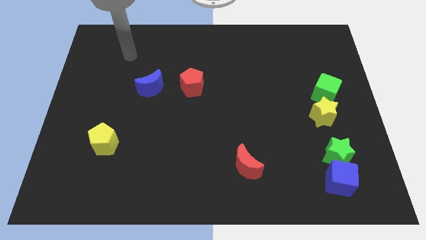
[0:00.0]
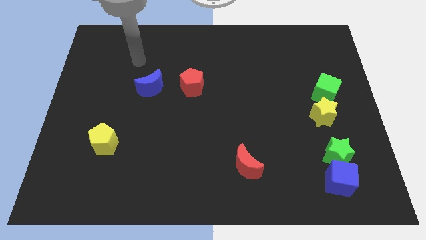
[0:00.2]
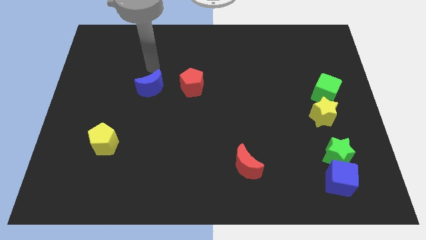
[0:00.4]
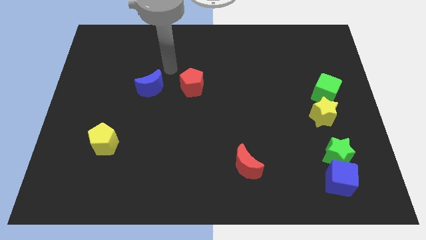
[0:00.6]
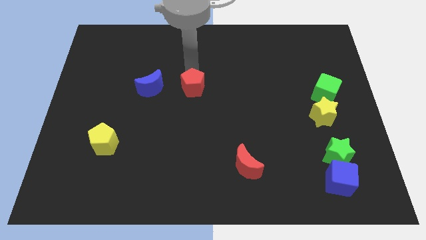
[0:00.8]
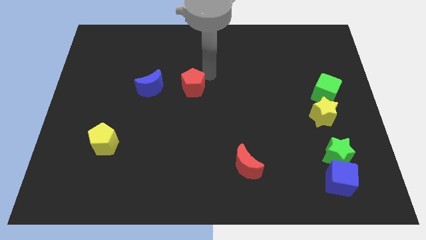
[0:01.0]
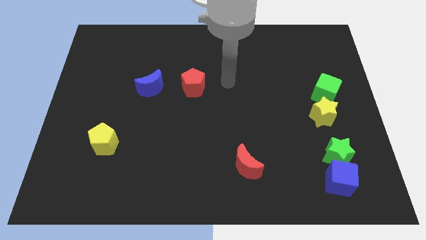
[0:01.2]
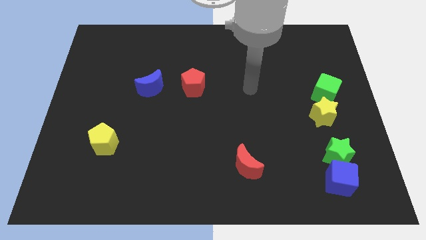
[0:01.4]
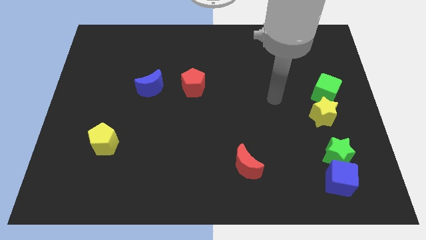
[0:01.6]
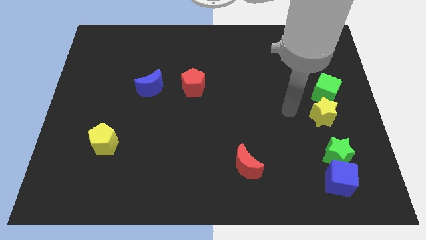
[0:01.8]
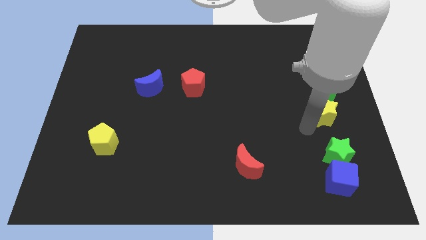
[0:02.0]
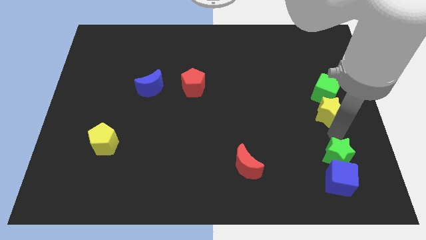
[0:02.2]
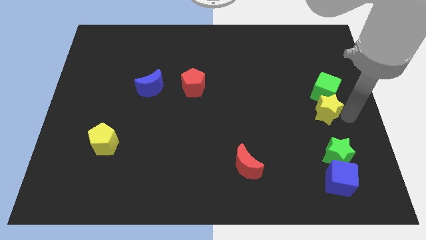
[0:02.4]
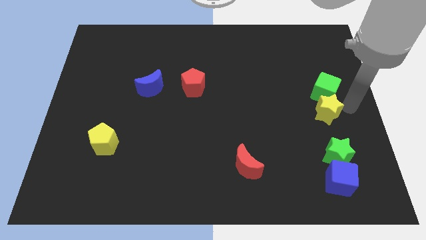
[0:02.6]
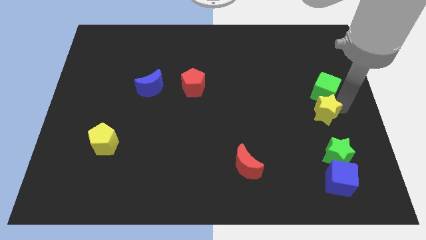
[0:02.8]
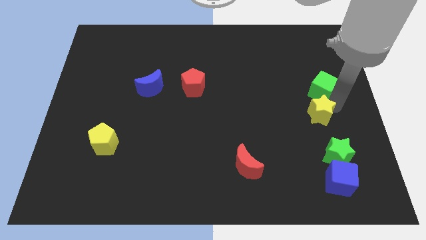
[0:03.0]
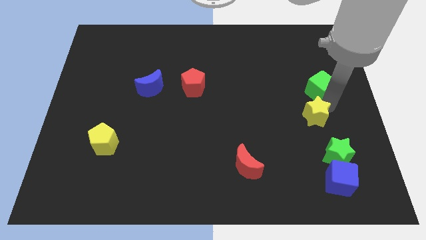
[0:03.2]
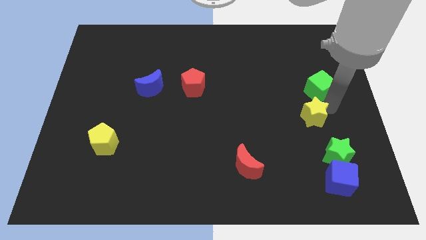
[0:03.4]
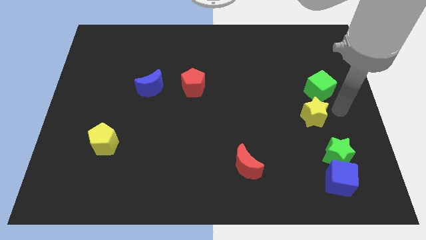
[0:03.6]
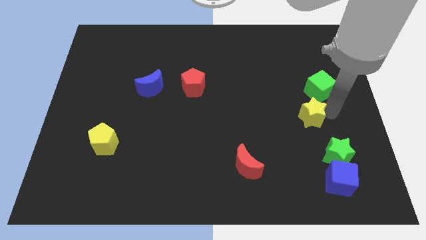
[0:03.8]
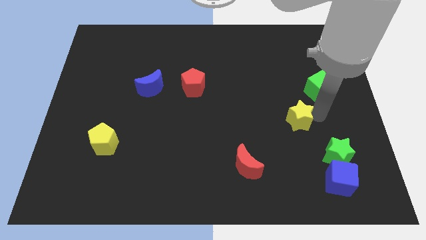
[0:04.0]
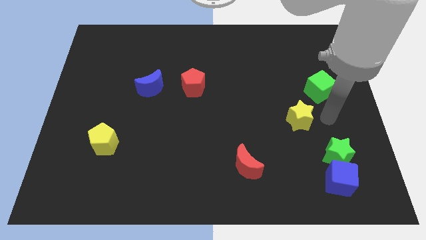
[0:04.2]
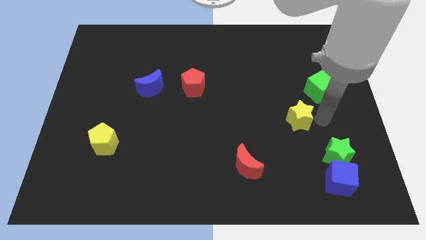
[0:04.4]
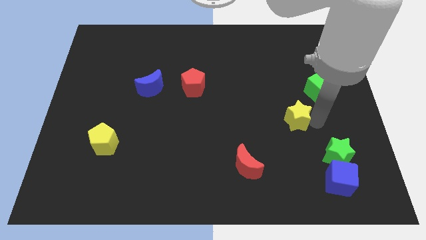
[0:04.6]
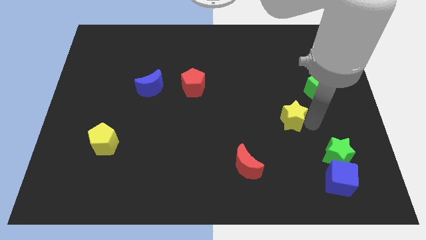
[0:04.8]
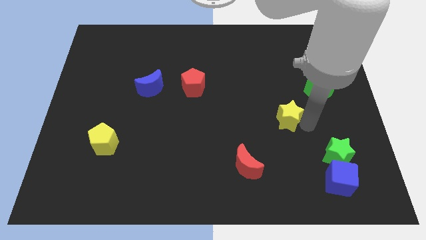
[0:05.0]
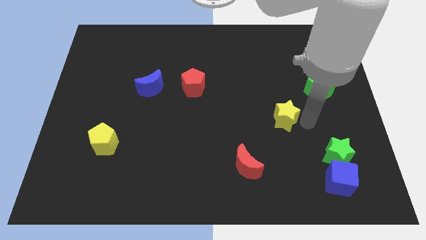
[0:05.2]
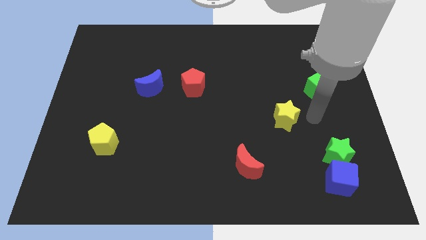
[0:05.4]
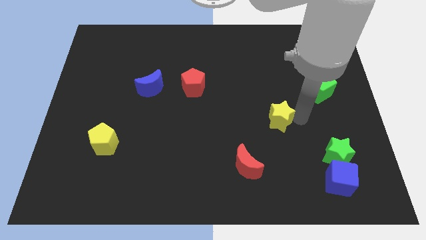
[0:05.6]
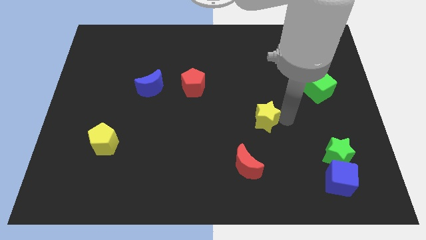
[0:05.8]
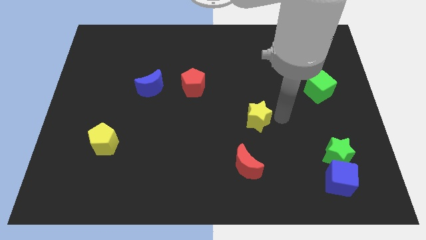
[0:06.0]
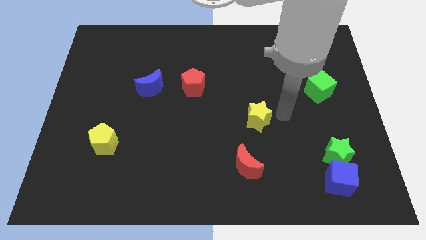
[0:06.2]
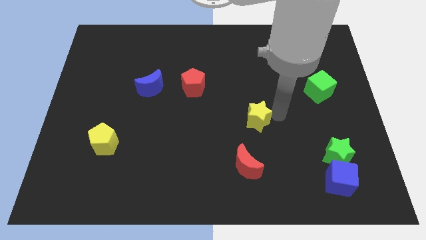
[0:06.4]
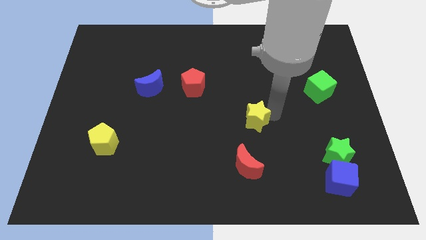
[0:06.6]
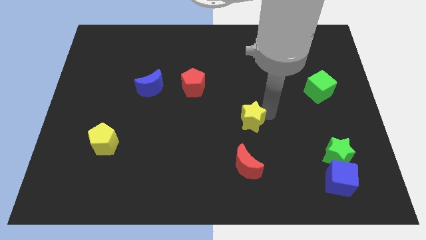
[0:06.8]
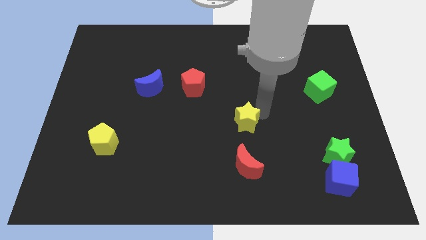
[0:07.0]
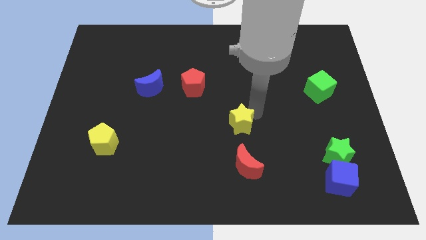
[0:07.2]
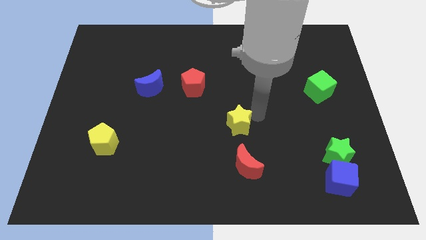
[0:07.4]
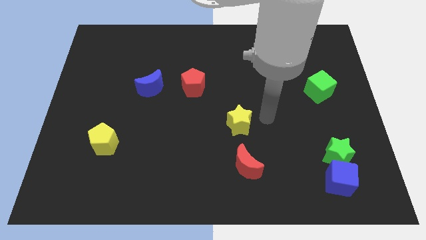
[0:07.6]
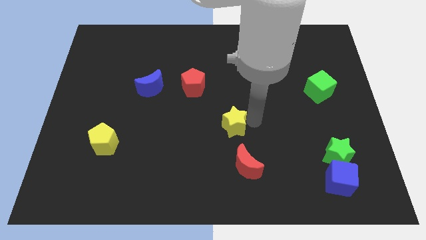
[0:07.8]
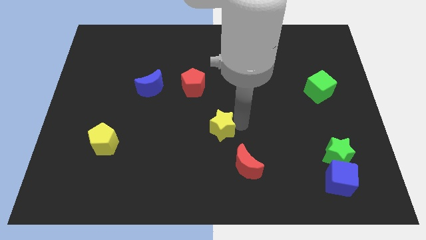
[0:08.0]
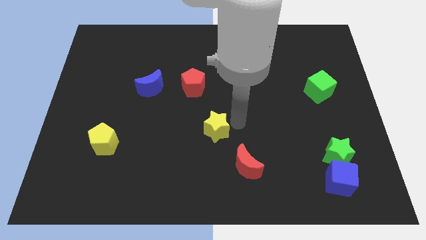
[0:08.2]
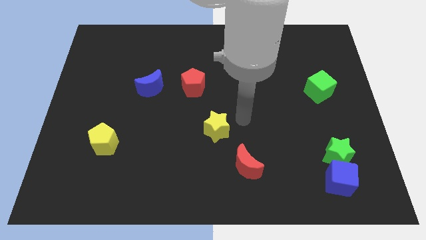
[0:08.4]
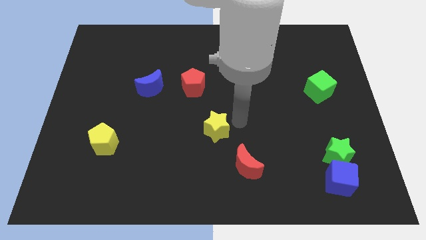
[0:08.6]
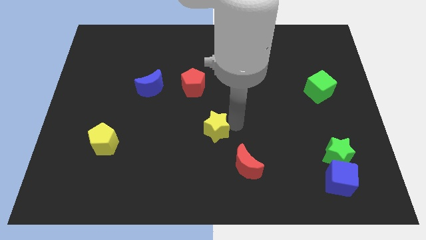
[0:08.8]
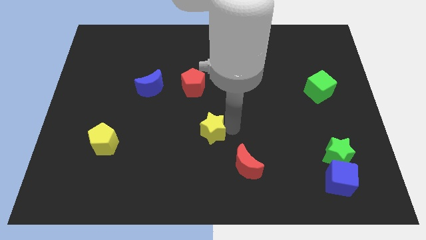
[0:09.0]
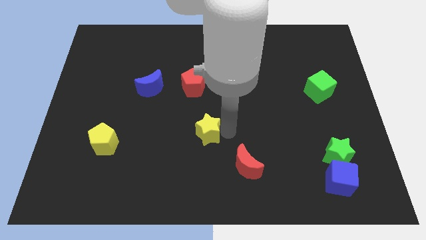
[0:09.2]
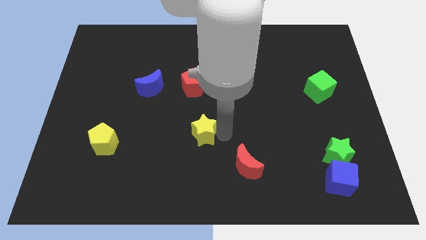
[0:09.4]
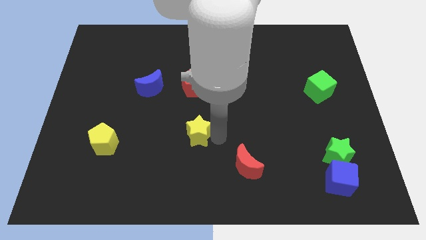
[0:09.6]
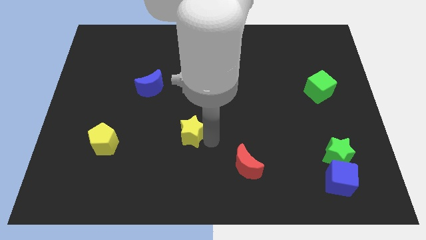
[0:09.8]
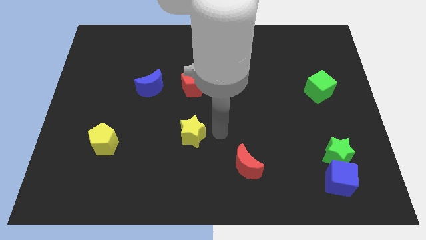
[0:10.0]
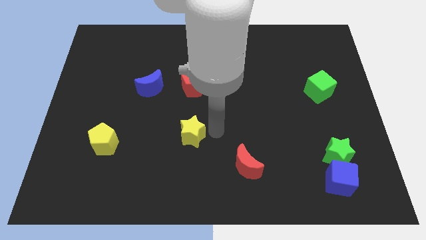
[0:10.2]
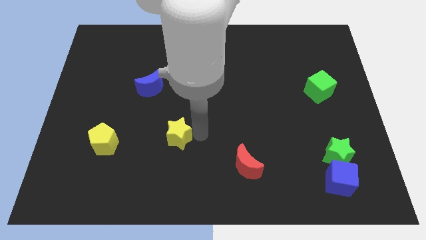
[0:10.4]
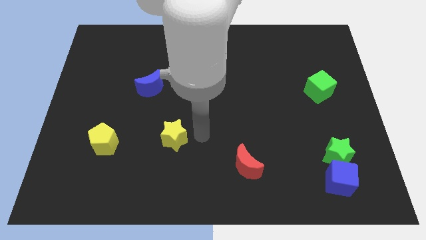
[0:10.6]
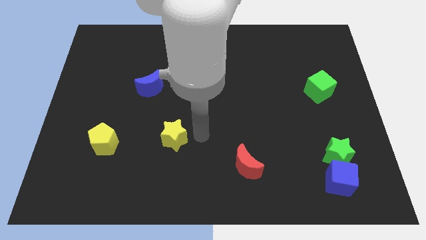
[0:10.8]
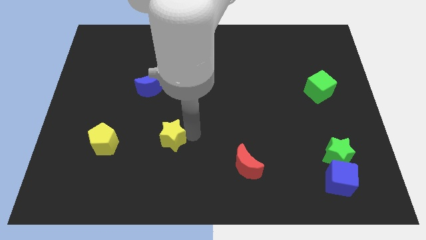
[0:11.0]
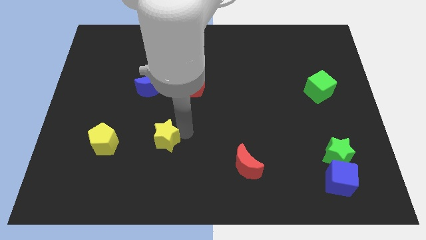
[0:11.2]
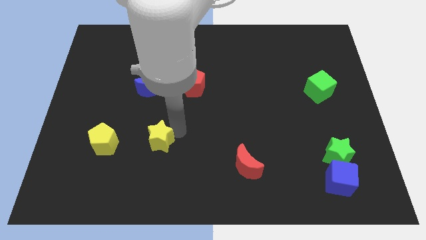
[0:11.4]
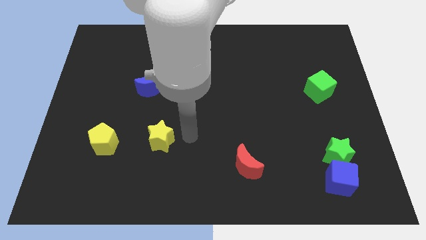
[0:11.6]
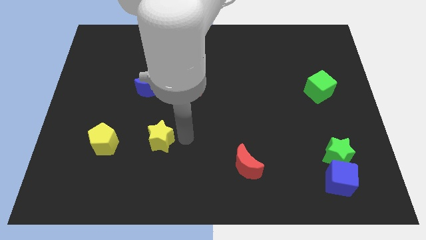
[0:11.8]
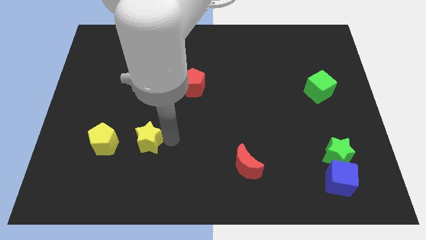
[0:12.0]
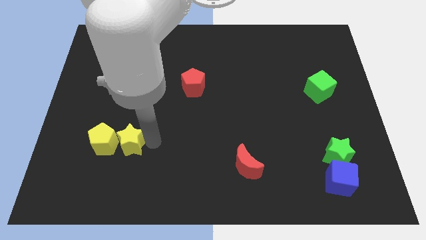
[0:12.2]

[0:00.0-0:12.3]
put the yellow star towards the yellow pentagon

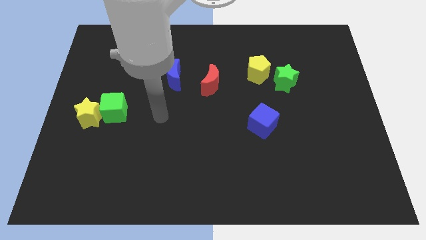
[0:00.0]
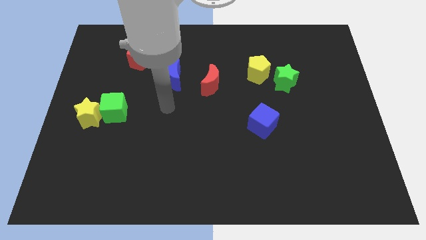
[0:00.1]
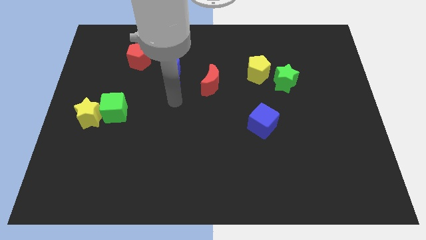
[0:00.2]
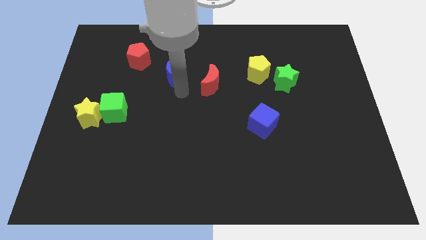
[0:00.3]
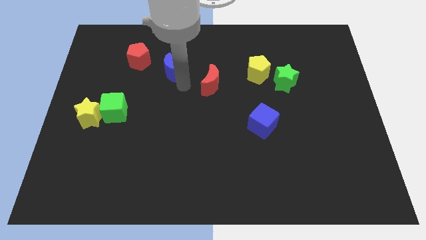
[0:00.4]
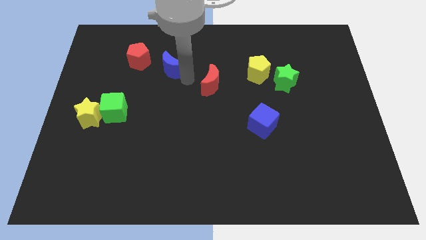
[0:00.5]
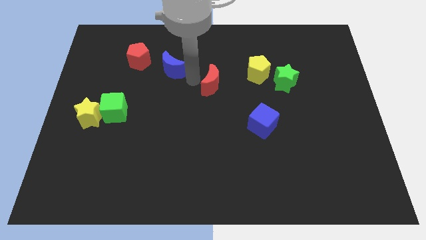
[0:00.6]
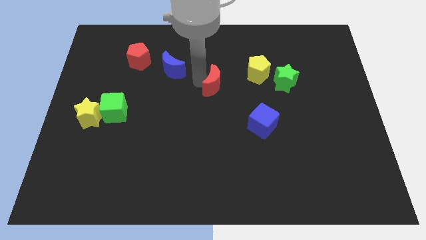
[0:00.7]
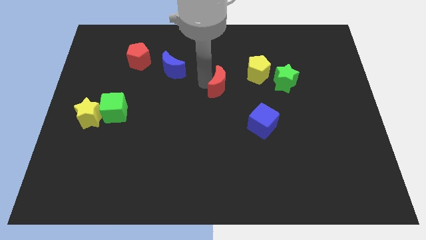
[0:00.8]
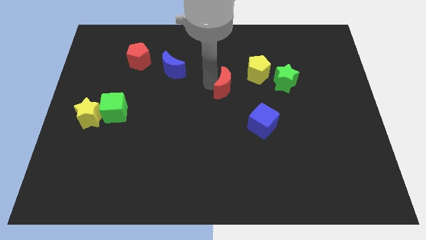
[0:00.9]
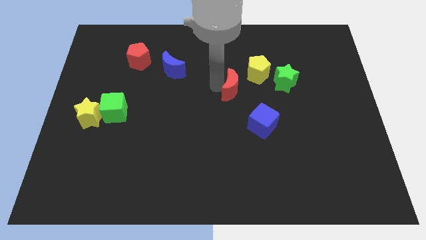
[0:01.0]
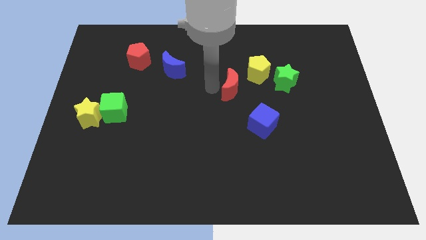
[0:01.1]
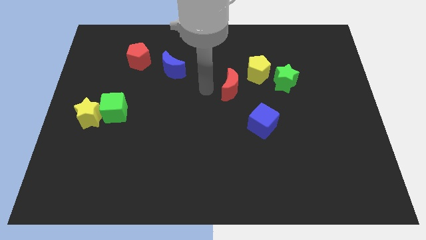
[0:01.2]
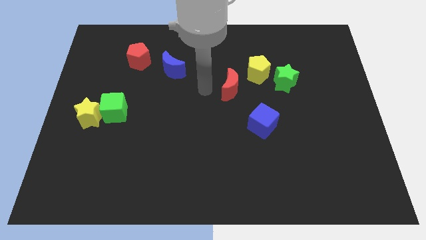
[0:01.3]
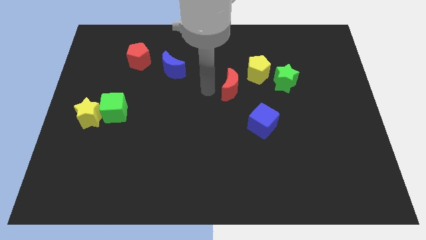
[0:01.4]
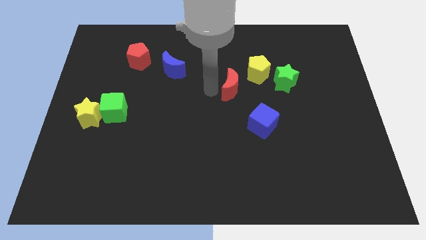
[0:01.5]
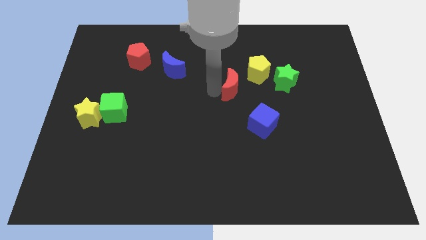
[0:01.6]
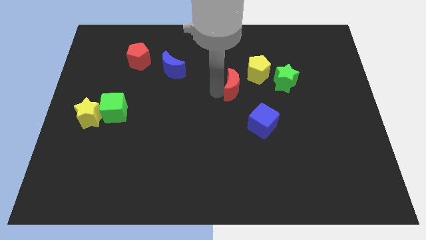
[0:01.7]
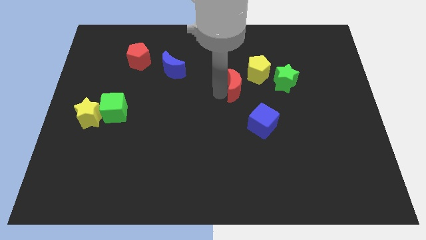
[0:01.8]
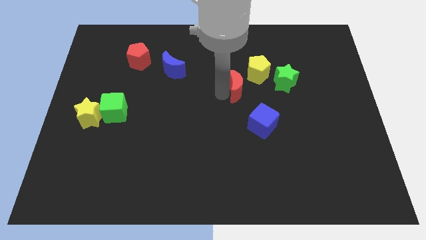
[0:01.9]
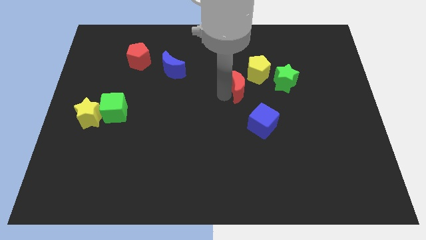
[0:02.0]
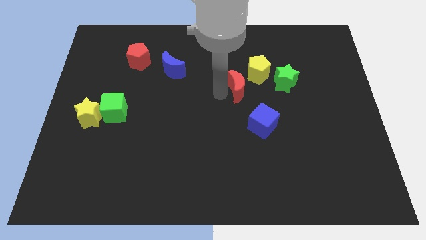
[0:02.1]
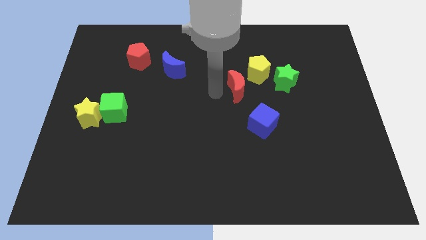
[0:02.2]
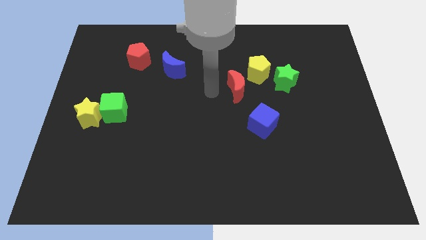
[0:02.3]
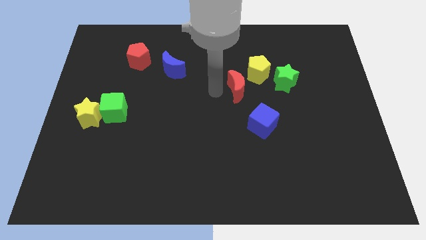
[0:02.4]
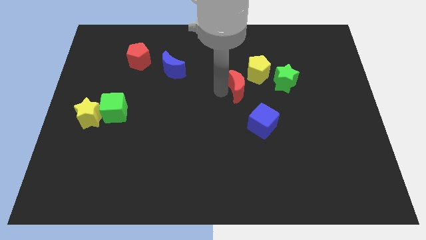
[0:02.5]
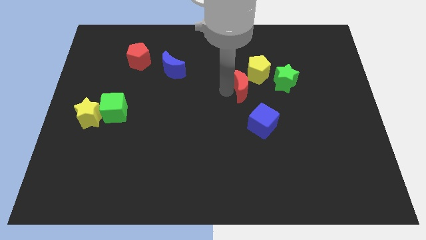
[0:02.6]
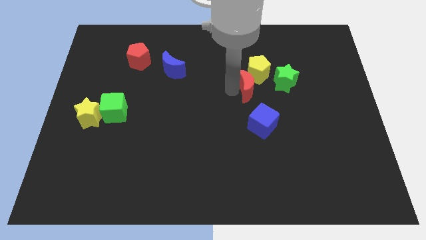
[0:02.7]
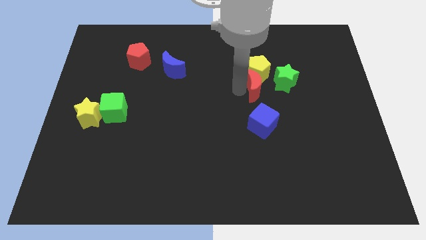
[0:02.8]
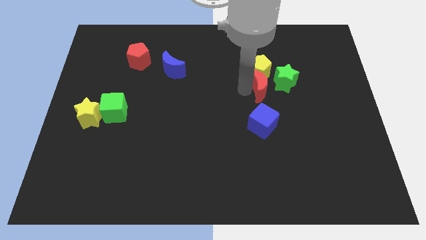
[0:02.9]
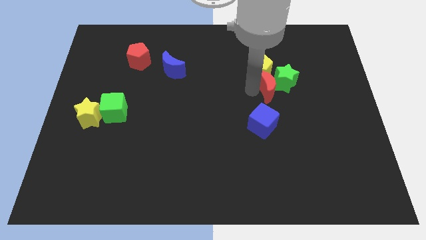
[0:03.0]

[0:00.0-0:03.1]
put the red moon close to the green star
